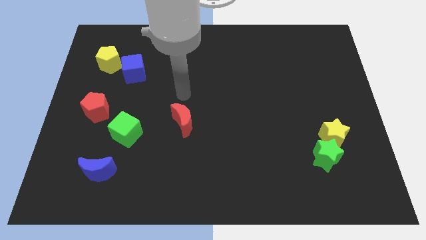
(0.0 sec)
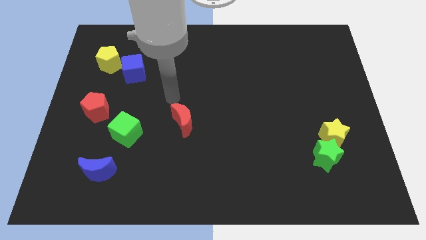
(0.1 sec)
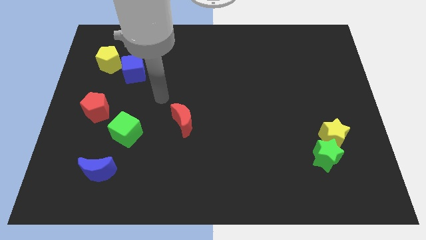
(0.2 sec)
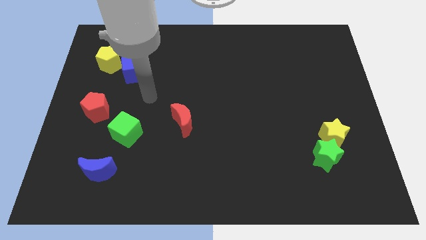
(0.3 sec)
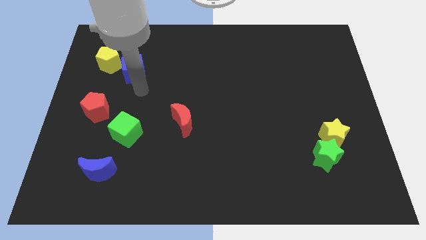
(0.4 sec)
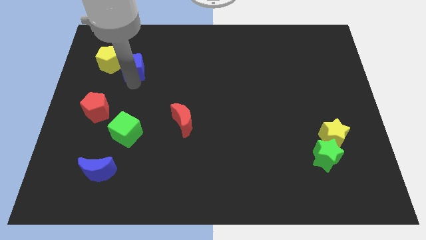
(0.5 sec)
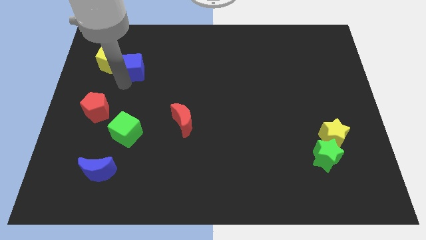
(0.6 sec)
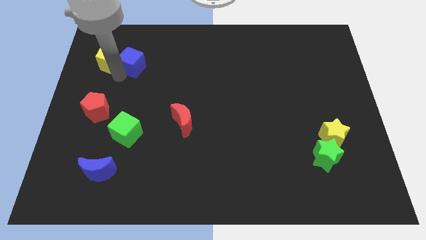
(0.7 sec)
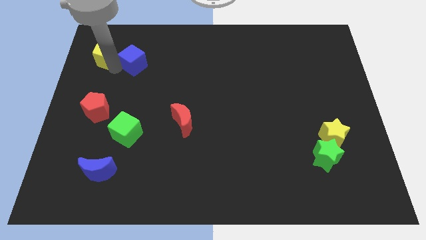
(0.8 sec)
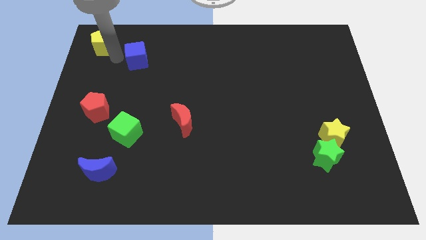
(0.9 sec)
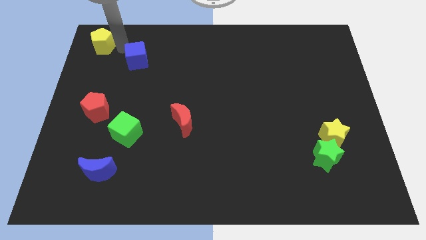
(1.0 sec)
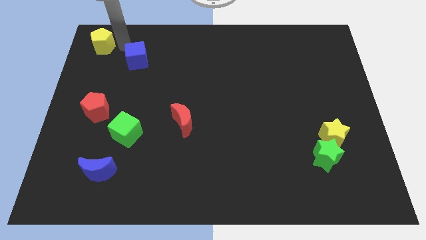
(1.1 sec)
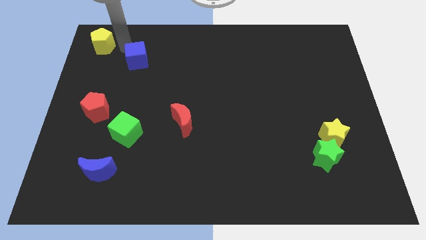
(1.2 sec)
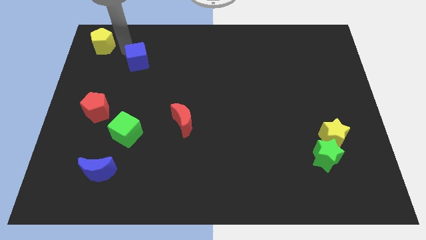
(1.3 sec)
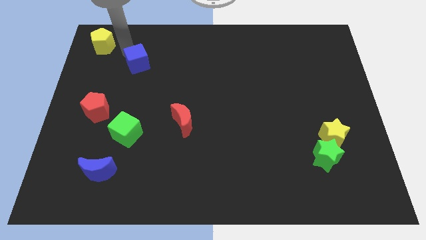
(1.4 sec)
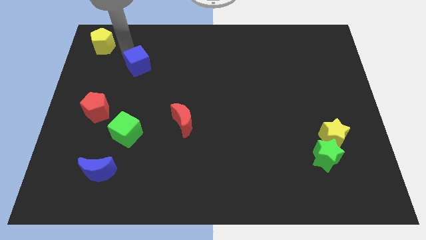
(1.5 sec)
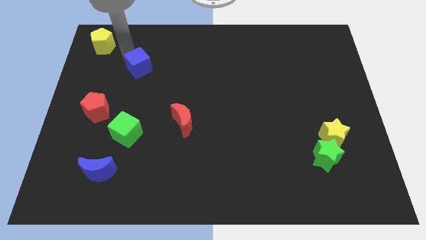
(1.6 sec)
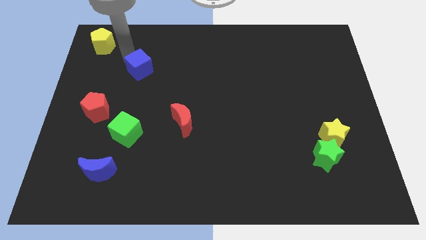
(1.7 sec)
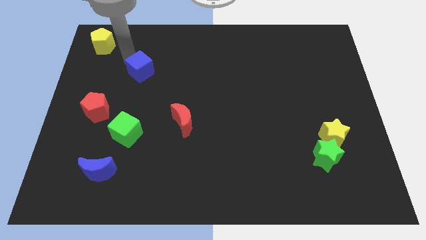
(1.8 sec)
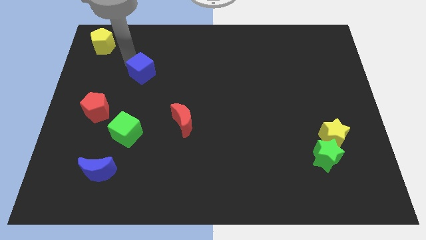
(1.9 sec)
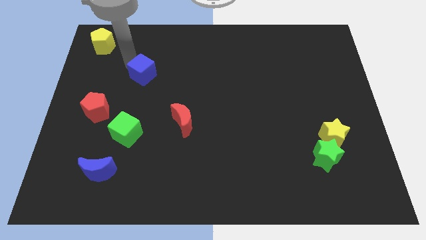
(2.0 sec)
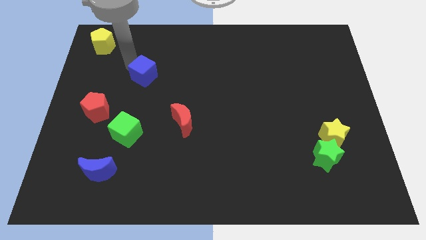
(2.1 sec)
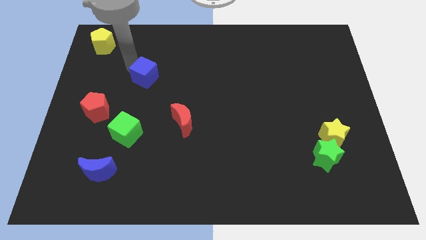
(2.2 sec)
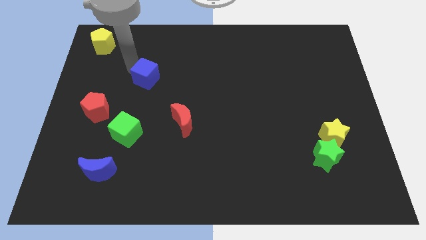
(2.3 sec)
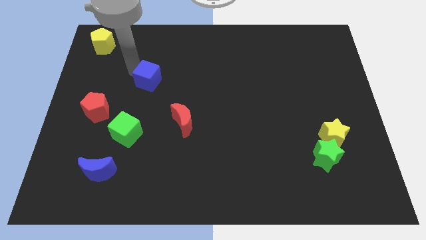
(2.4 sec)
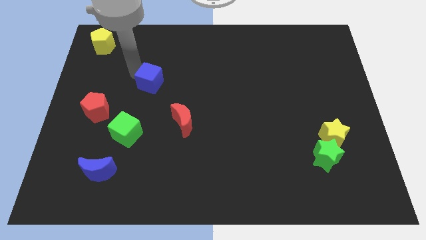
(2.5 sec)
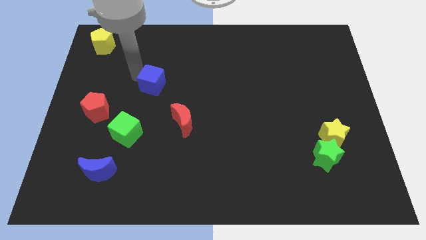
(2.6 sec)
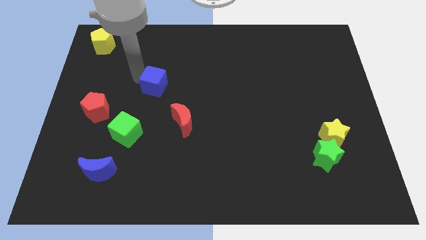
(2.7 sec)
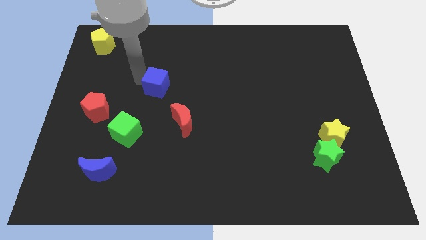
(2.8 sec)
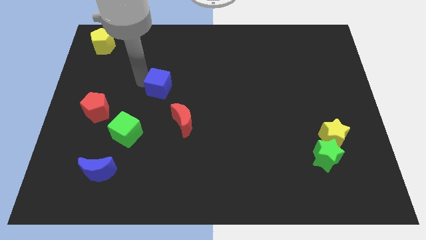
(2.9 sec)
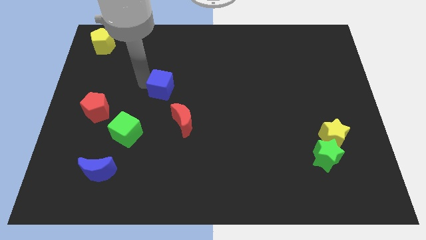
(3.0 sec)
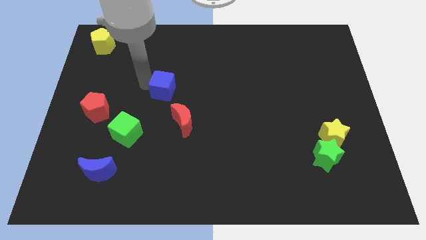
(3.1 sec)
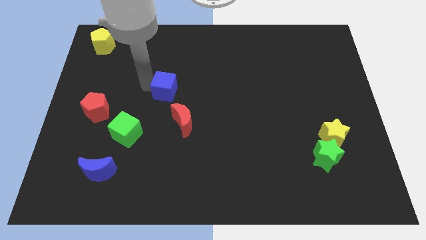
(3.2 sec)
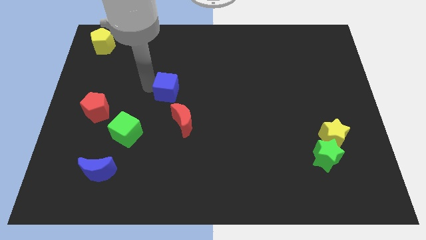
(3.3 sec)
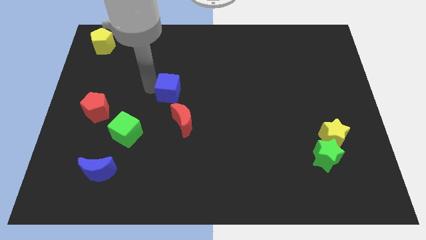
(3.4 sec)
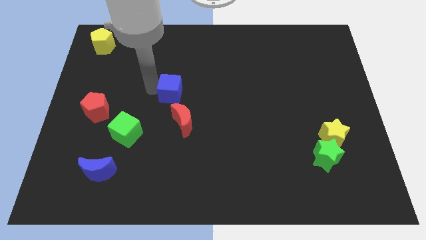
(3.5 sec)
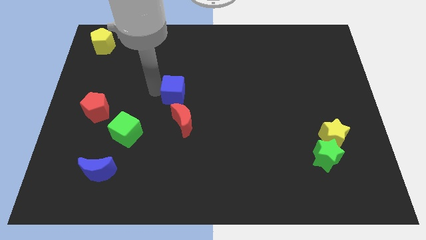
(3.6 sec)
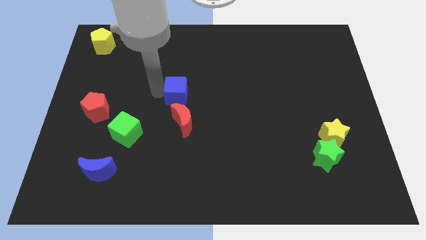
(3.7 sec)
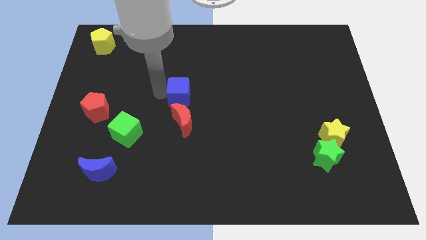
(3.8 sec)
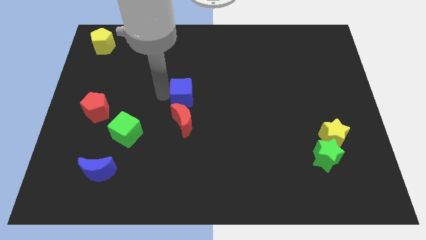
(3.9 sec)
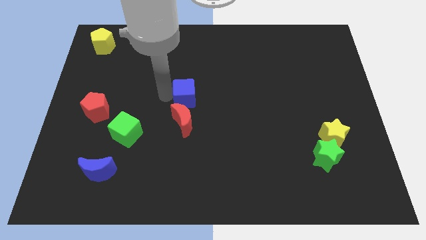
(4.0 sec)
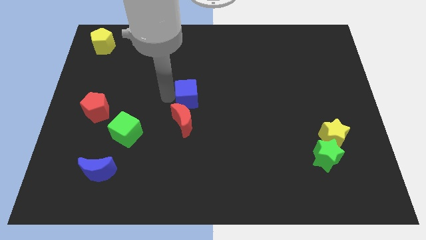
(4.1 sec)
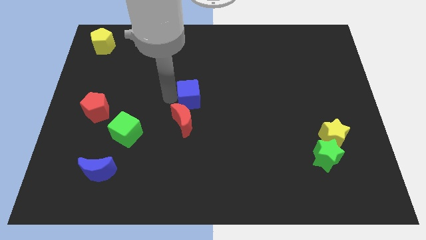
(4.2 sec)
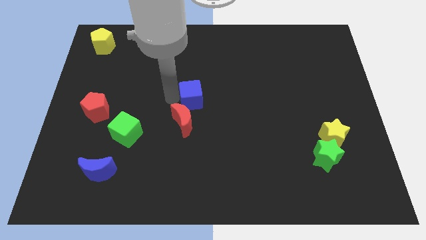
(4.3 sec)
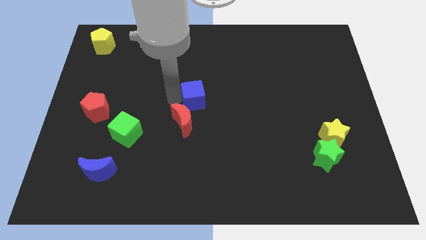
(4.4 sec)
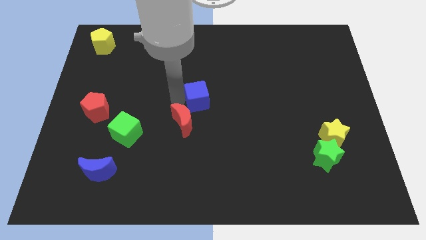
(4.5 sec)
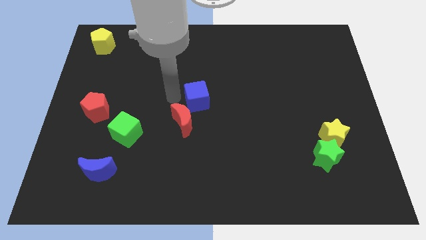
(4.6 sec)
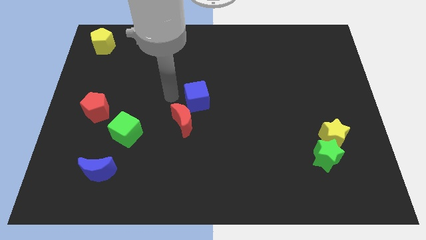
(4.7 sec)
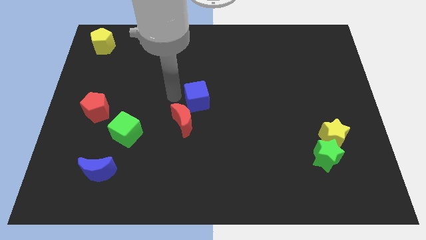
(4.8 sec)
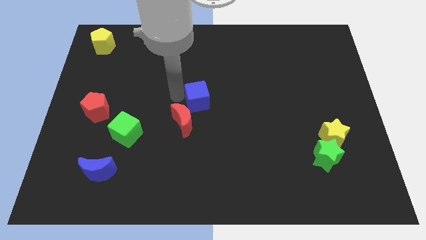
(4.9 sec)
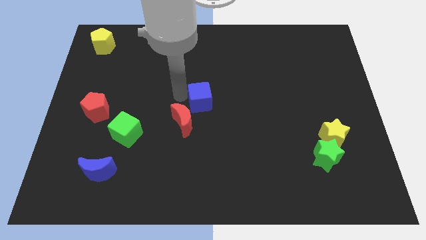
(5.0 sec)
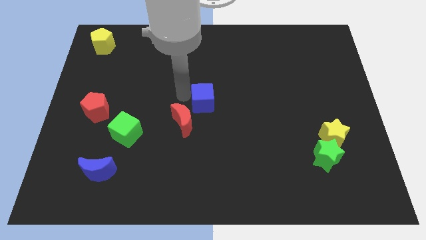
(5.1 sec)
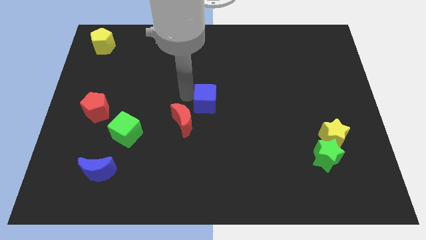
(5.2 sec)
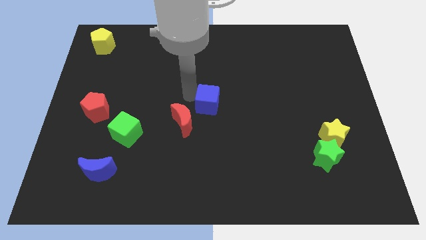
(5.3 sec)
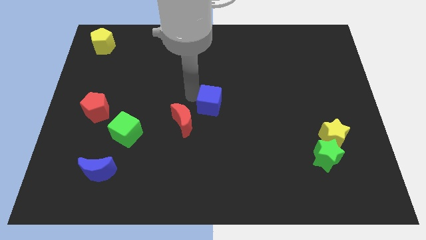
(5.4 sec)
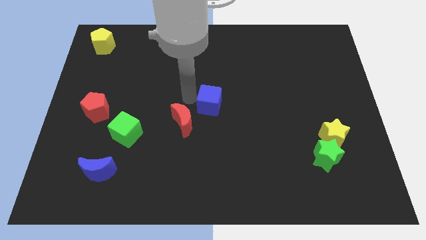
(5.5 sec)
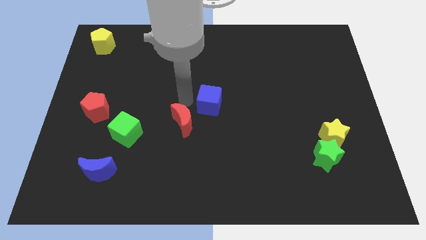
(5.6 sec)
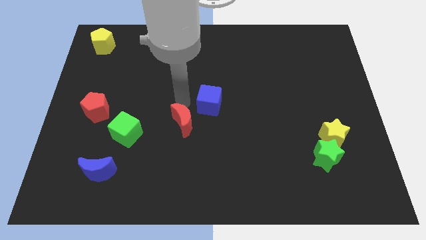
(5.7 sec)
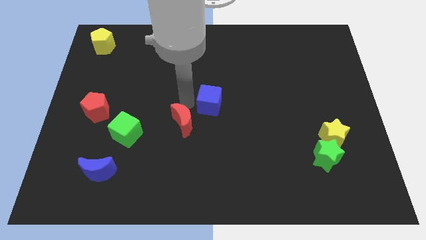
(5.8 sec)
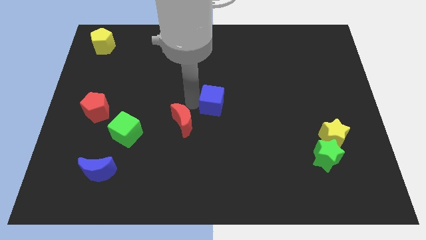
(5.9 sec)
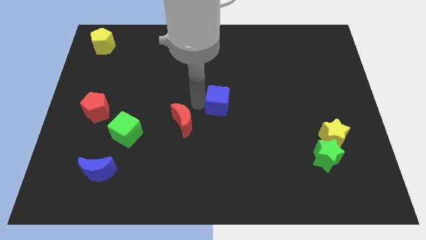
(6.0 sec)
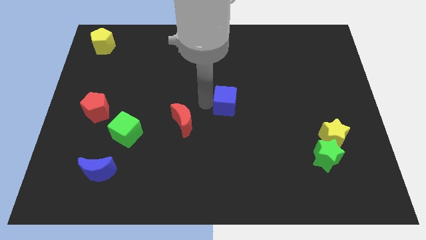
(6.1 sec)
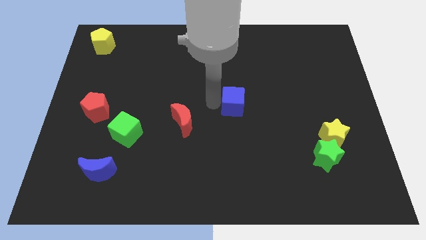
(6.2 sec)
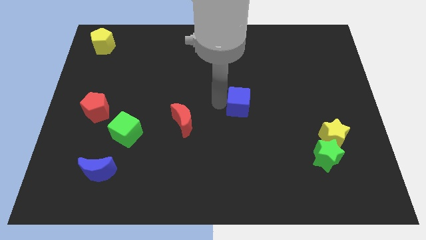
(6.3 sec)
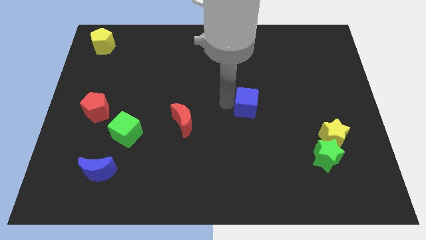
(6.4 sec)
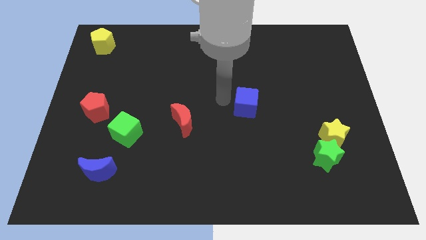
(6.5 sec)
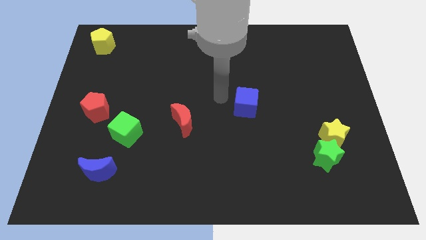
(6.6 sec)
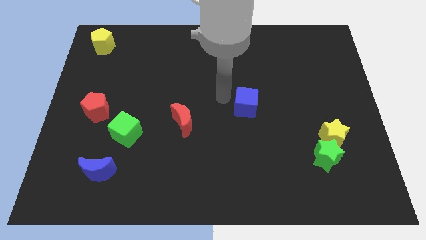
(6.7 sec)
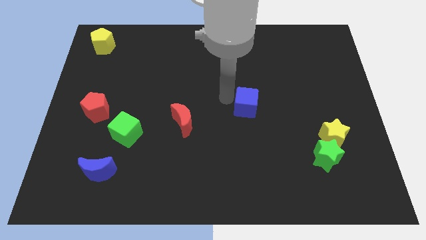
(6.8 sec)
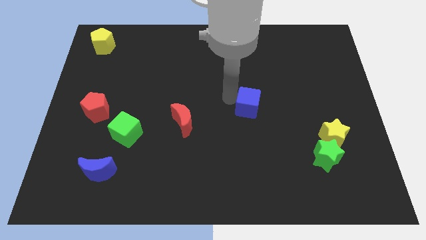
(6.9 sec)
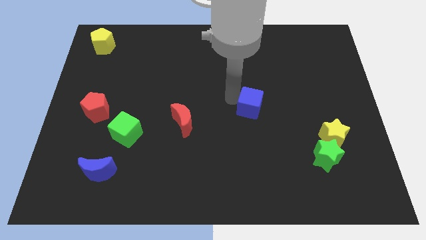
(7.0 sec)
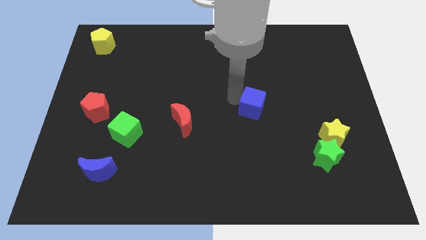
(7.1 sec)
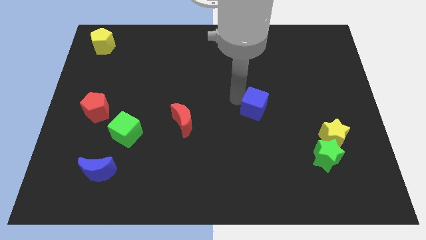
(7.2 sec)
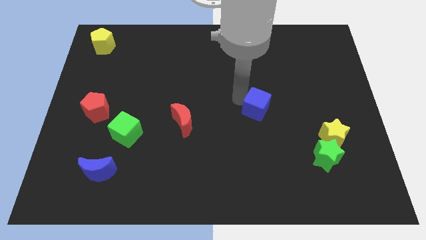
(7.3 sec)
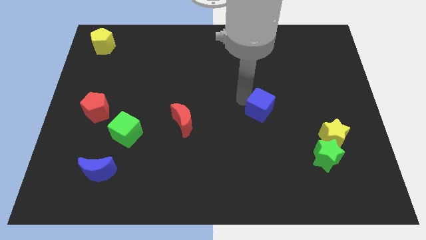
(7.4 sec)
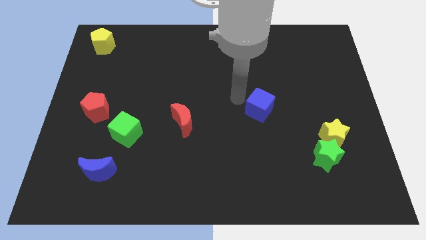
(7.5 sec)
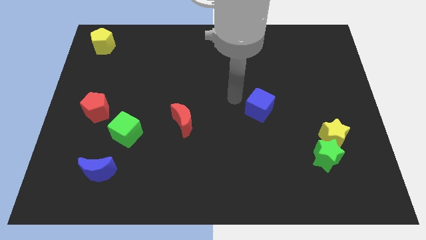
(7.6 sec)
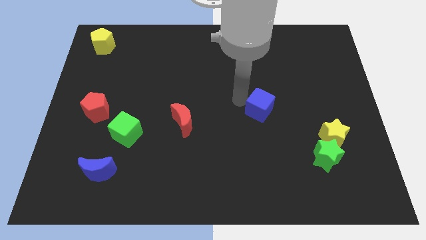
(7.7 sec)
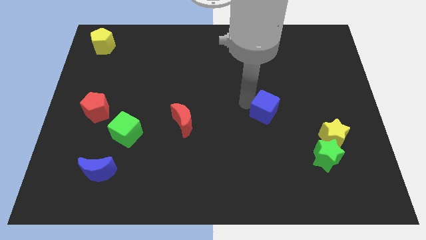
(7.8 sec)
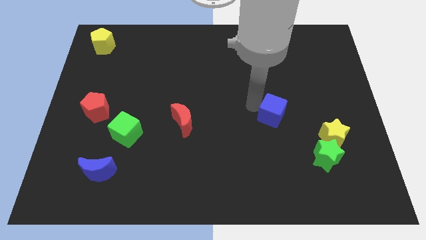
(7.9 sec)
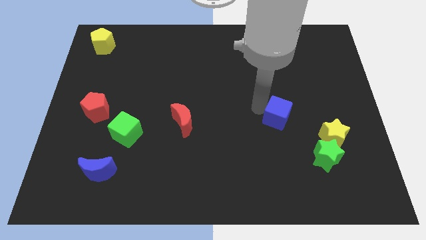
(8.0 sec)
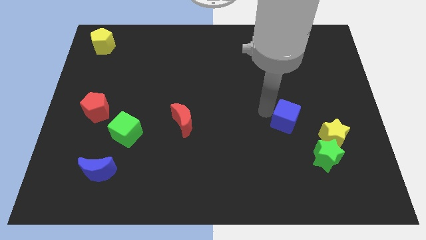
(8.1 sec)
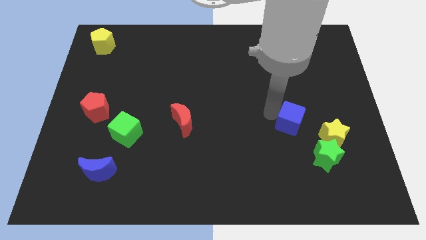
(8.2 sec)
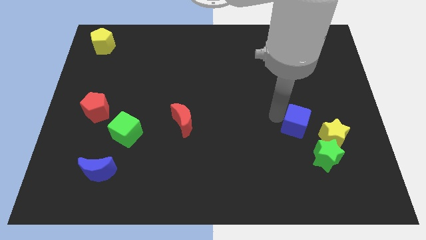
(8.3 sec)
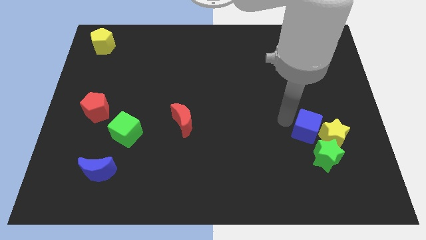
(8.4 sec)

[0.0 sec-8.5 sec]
move the blue cube close to the yellow star
